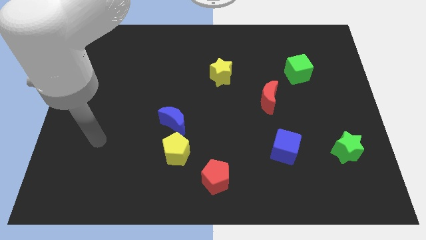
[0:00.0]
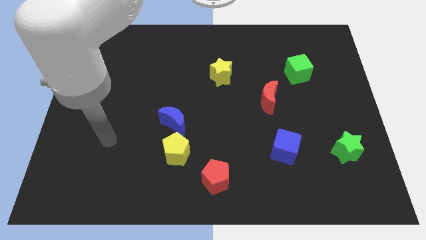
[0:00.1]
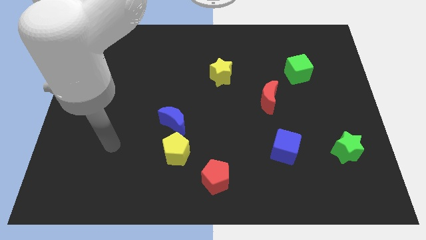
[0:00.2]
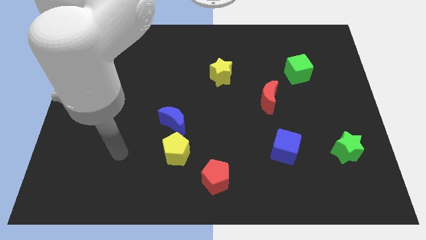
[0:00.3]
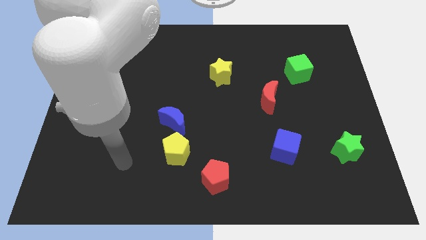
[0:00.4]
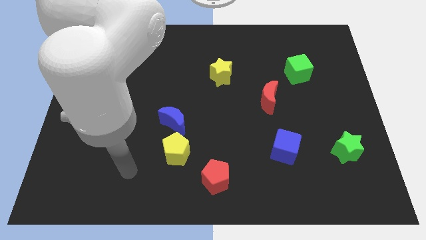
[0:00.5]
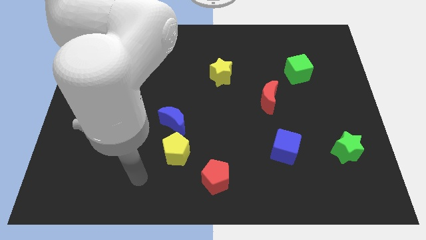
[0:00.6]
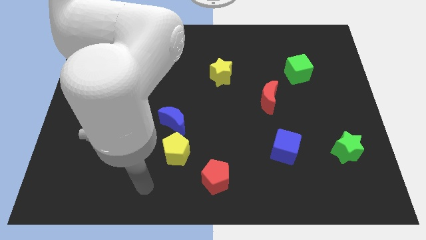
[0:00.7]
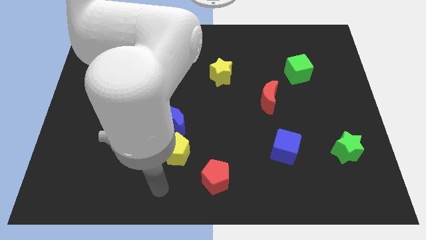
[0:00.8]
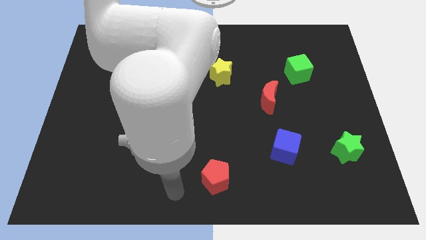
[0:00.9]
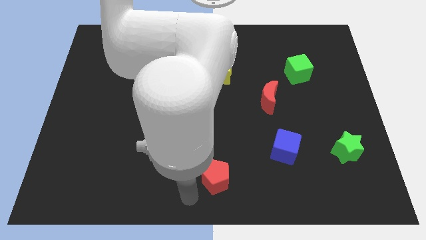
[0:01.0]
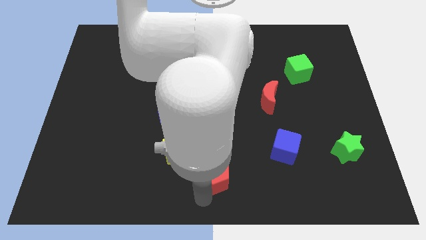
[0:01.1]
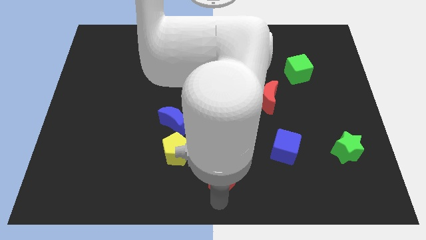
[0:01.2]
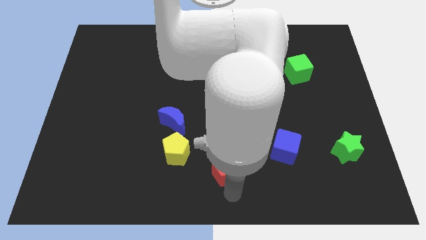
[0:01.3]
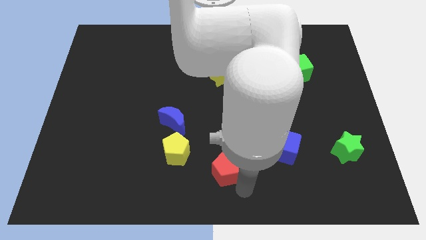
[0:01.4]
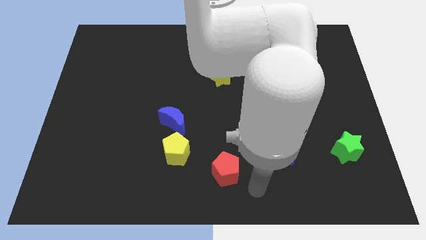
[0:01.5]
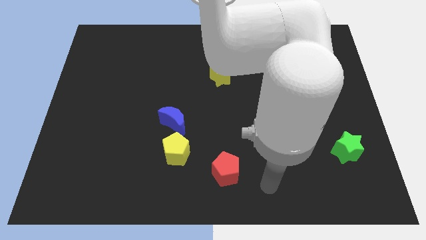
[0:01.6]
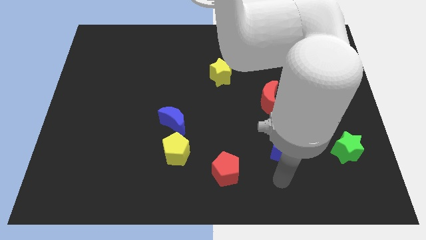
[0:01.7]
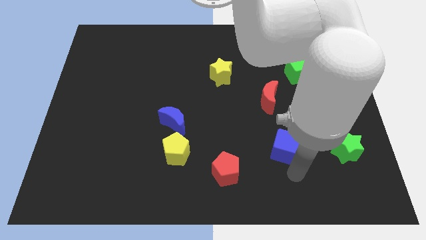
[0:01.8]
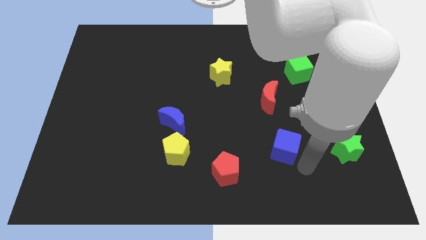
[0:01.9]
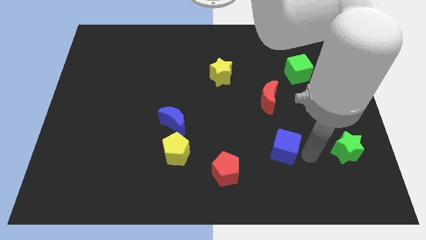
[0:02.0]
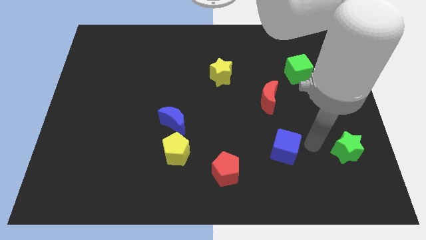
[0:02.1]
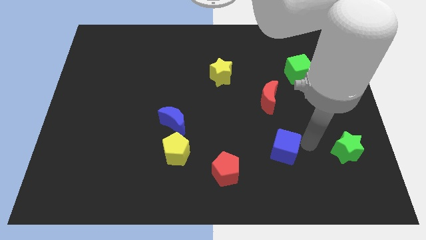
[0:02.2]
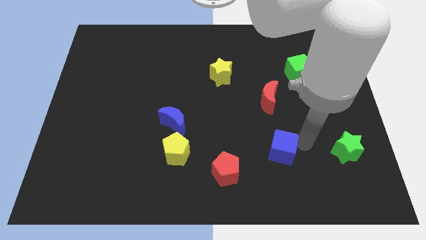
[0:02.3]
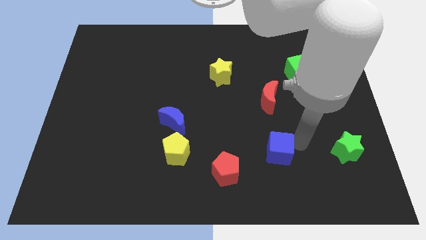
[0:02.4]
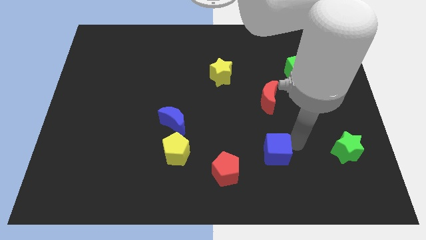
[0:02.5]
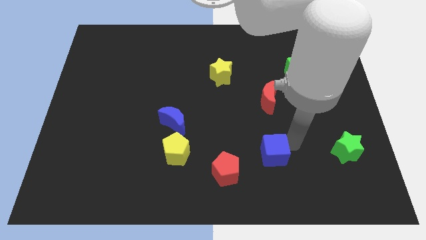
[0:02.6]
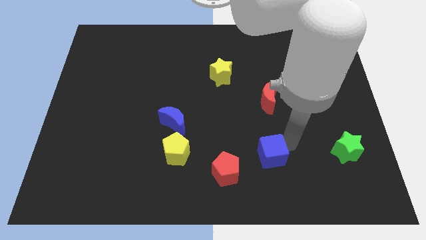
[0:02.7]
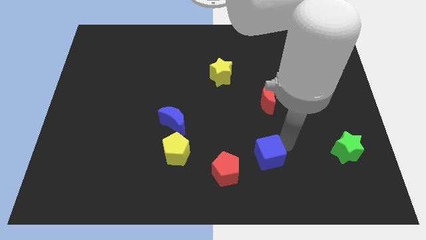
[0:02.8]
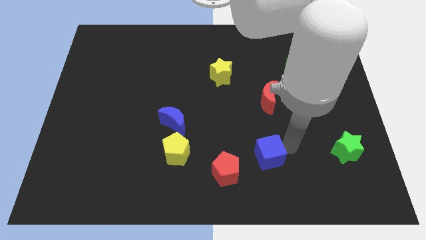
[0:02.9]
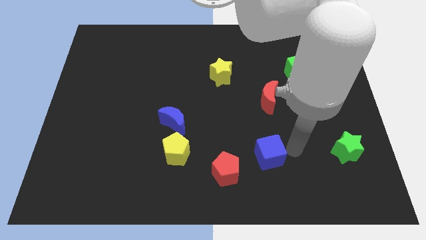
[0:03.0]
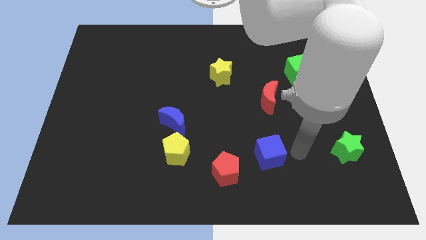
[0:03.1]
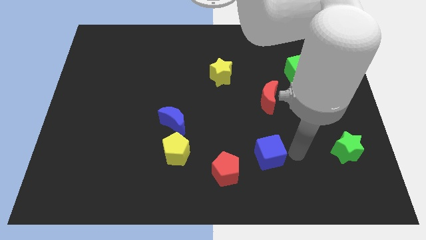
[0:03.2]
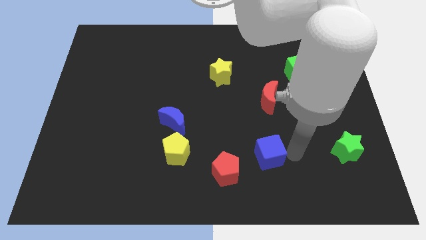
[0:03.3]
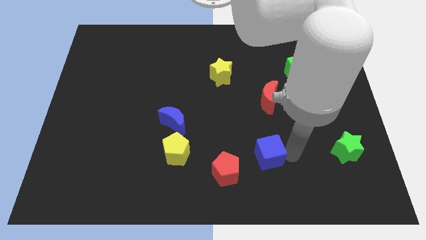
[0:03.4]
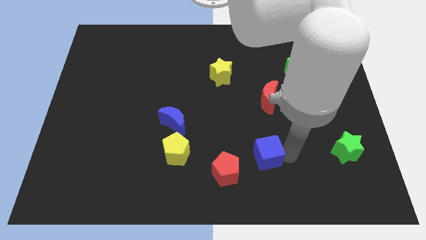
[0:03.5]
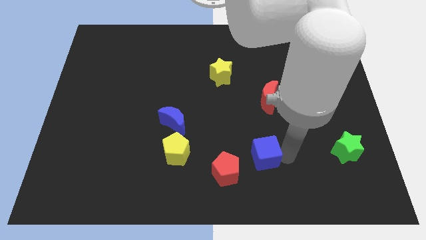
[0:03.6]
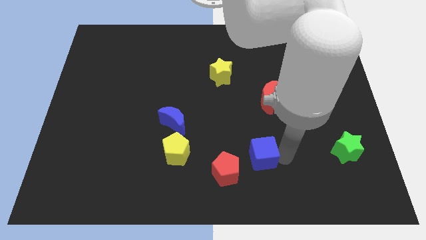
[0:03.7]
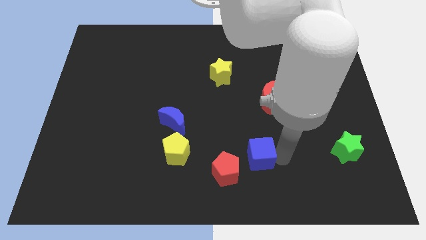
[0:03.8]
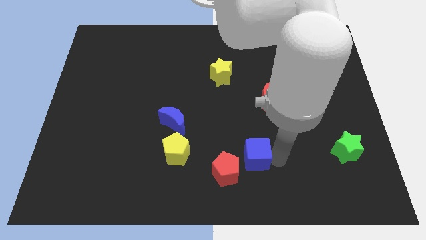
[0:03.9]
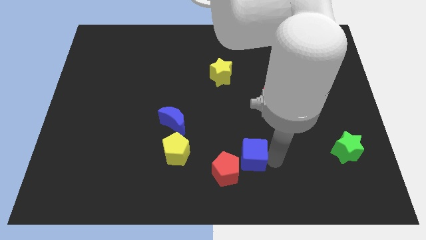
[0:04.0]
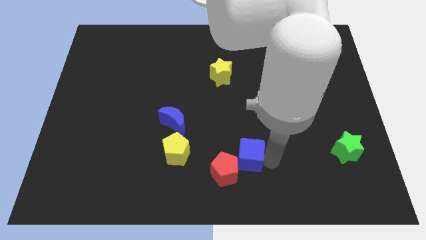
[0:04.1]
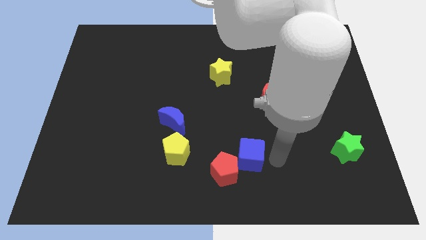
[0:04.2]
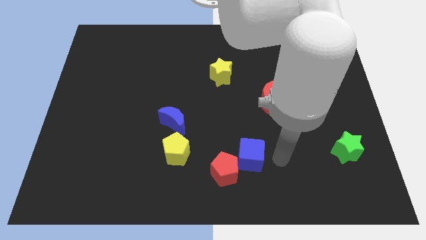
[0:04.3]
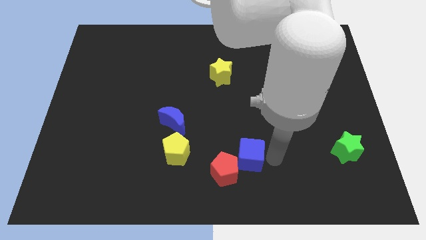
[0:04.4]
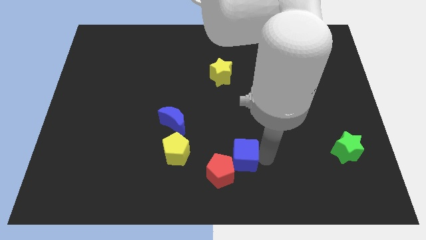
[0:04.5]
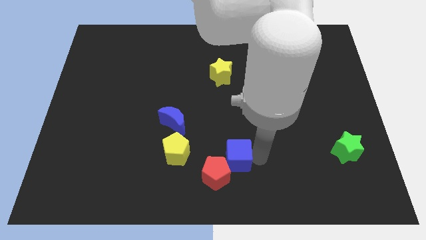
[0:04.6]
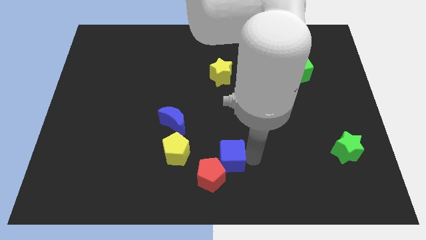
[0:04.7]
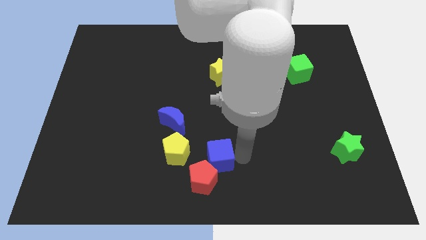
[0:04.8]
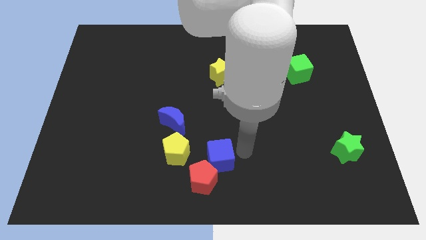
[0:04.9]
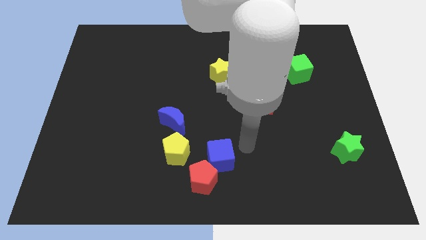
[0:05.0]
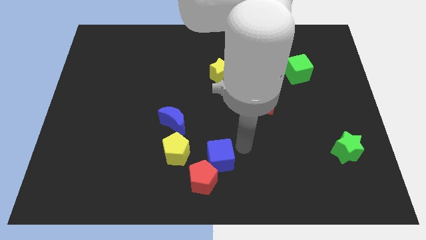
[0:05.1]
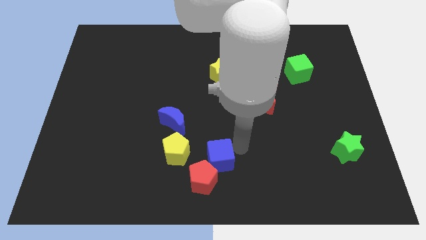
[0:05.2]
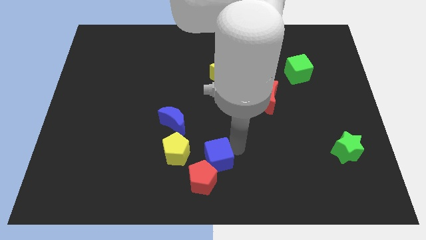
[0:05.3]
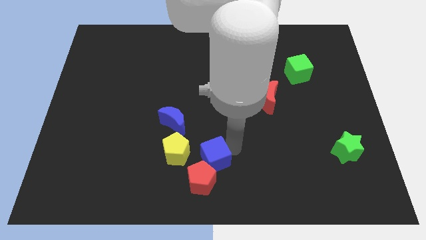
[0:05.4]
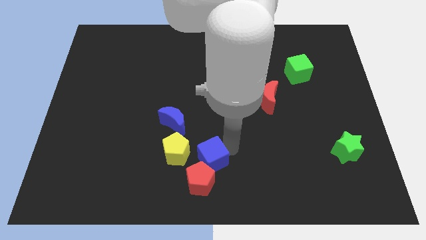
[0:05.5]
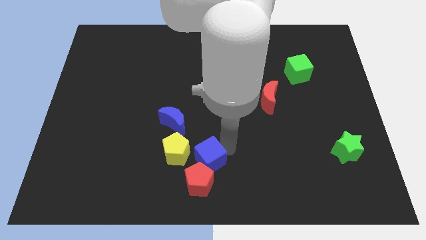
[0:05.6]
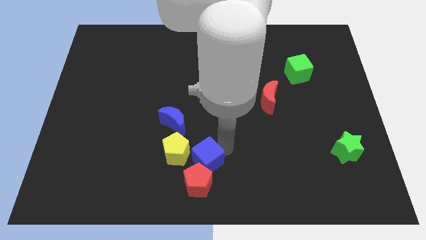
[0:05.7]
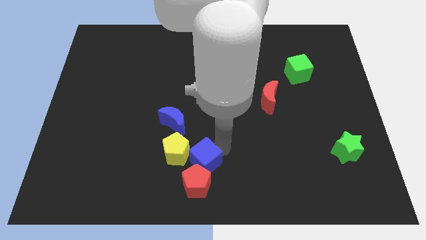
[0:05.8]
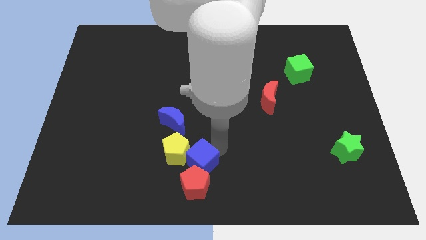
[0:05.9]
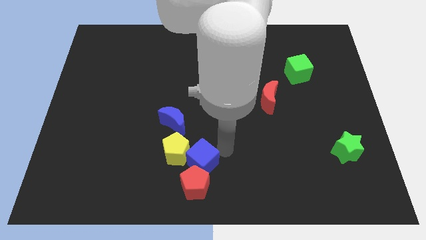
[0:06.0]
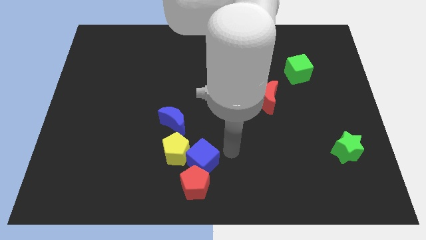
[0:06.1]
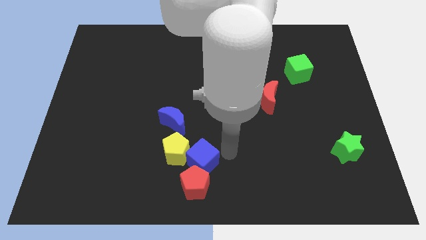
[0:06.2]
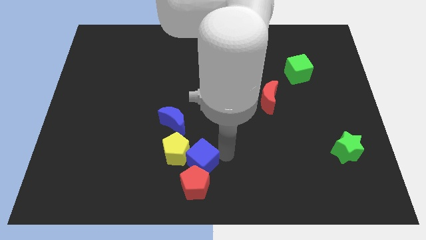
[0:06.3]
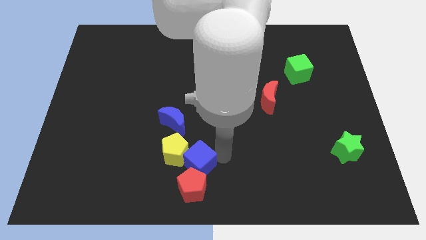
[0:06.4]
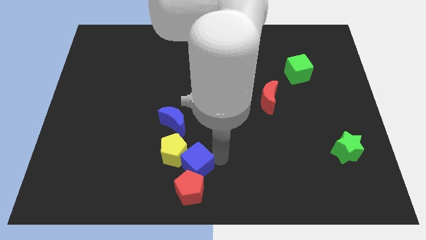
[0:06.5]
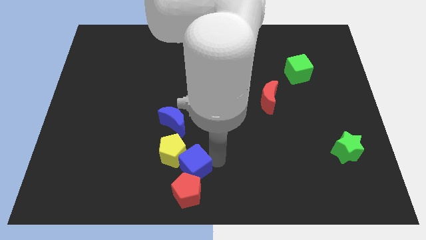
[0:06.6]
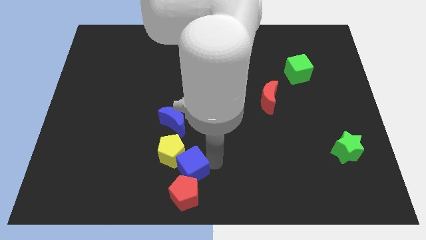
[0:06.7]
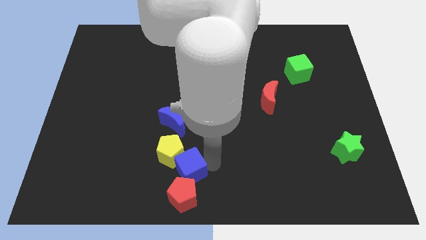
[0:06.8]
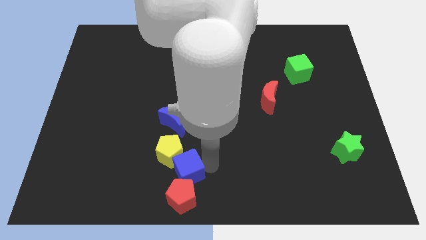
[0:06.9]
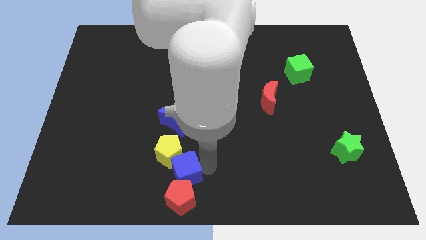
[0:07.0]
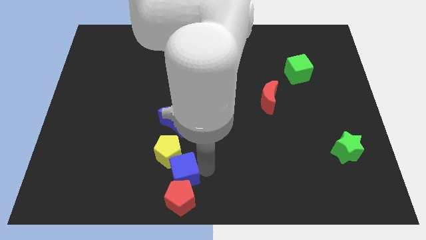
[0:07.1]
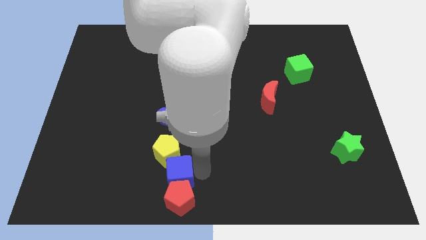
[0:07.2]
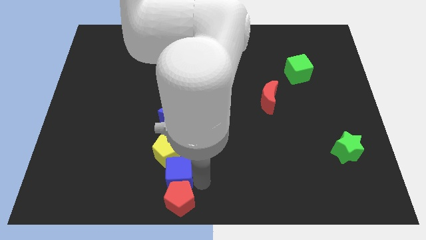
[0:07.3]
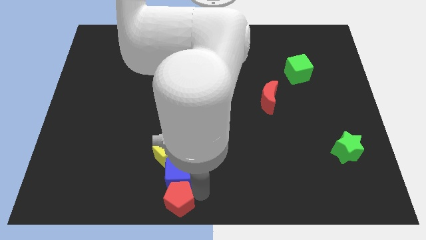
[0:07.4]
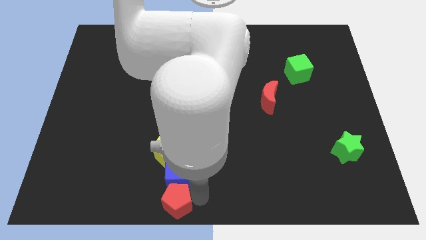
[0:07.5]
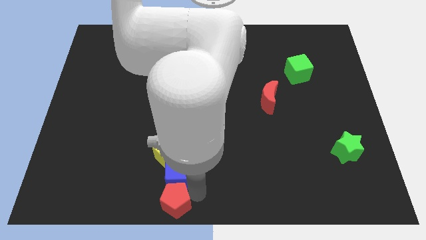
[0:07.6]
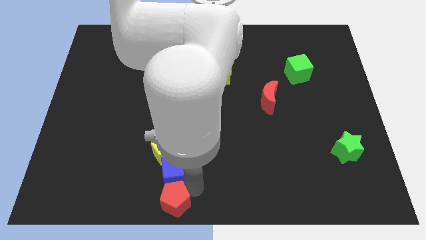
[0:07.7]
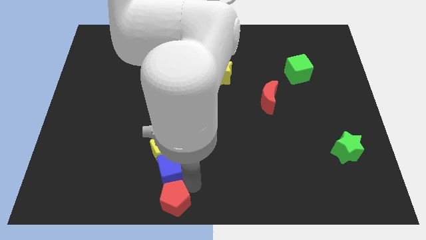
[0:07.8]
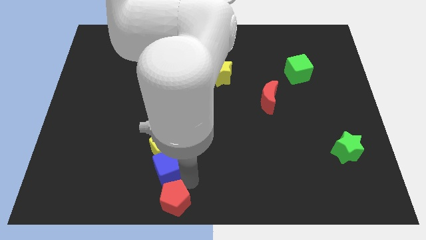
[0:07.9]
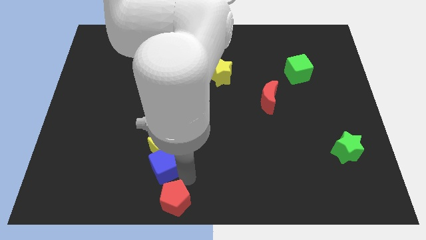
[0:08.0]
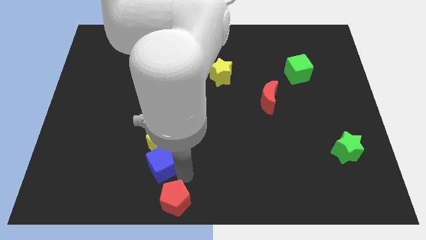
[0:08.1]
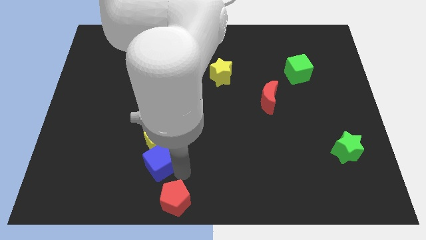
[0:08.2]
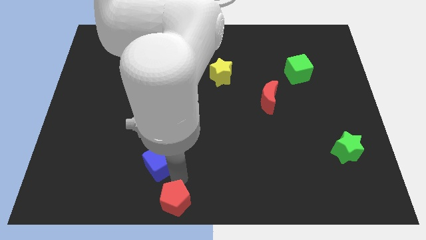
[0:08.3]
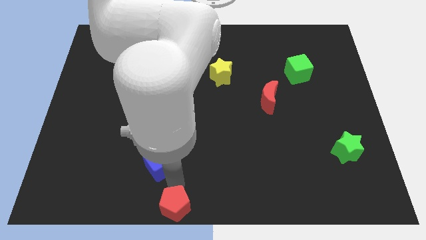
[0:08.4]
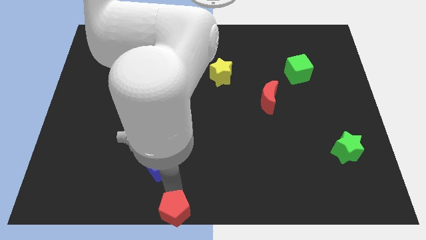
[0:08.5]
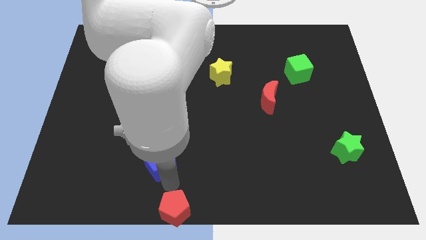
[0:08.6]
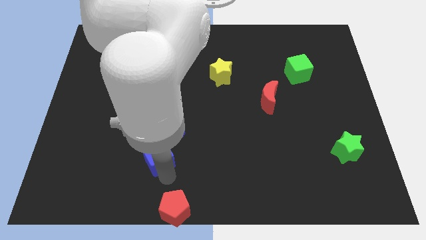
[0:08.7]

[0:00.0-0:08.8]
move the blue cube to the bottom left side of the blue moon
